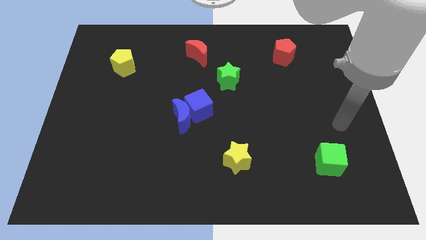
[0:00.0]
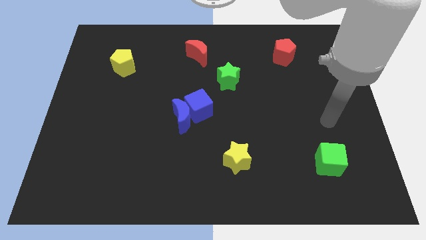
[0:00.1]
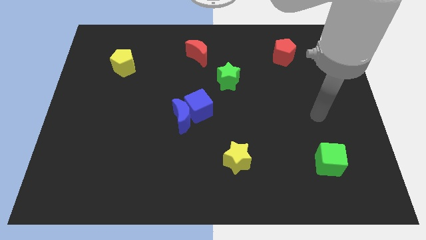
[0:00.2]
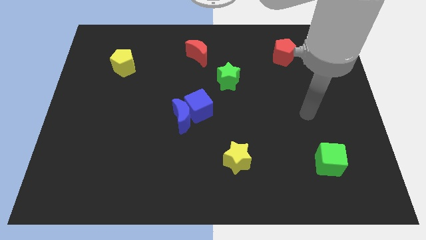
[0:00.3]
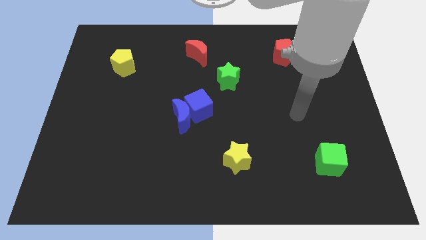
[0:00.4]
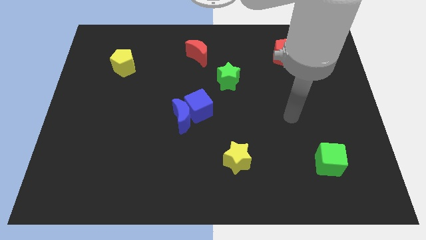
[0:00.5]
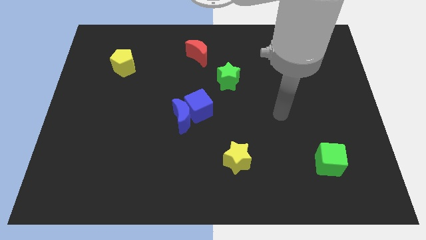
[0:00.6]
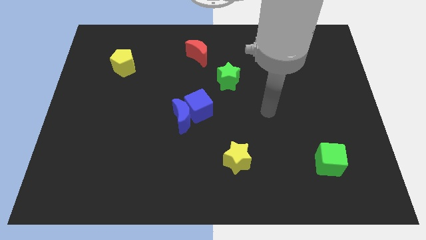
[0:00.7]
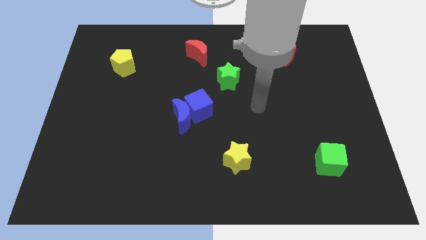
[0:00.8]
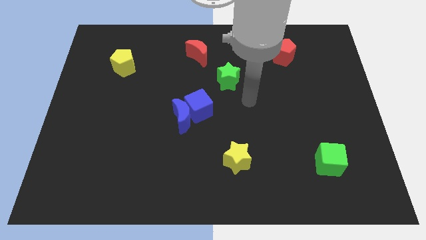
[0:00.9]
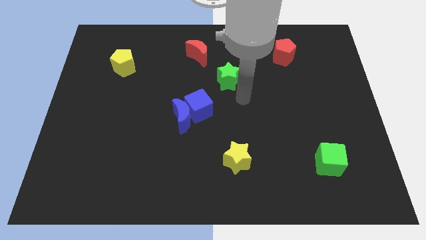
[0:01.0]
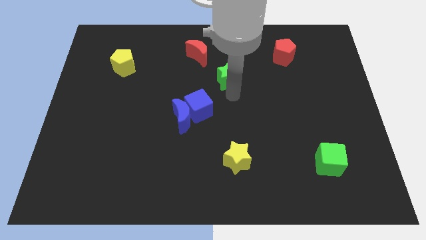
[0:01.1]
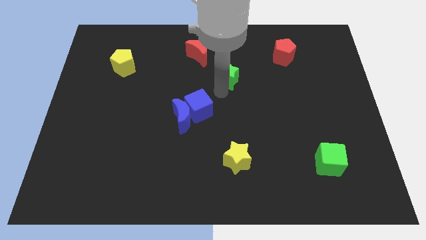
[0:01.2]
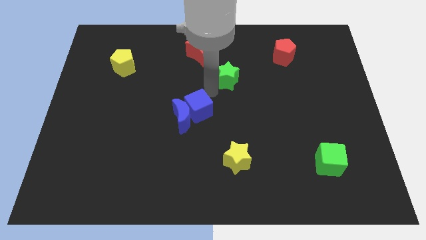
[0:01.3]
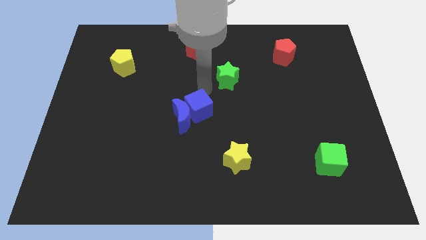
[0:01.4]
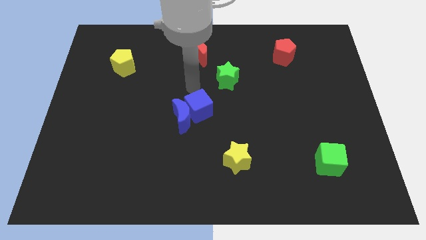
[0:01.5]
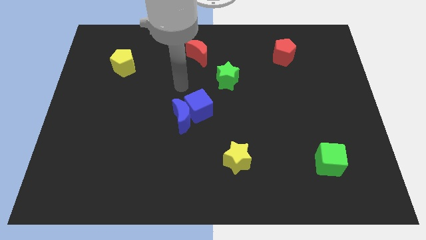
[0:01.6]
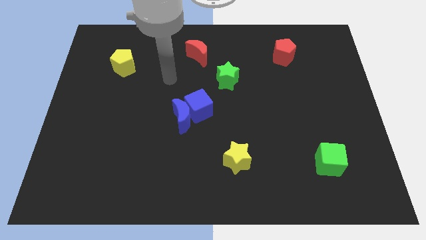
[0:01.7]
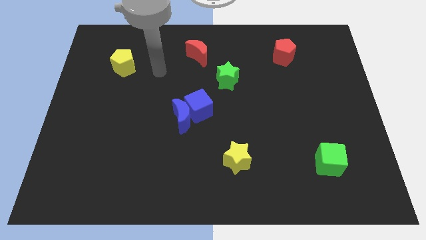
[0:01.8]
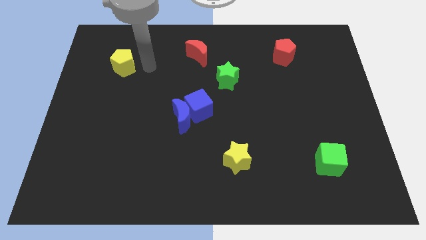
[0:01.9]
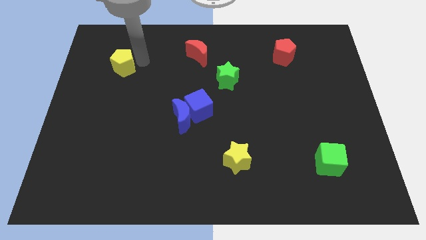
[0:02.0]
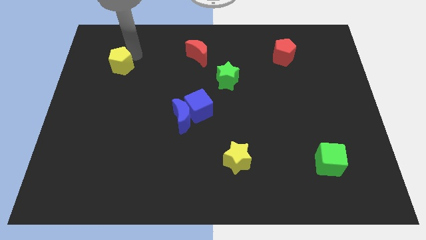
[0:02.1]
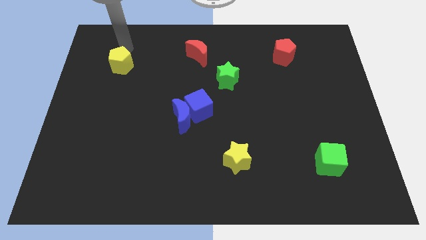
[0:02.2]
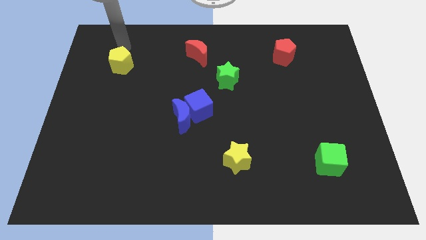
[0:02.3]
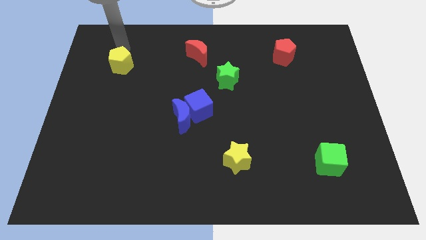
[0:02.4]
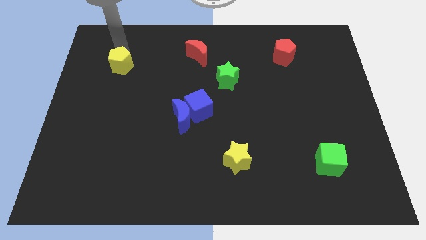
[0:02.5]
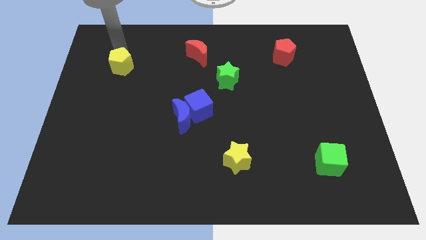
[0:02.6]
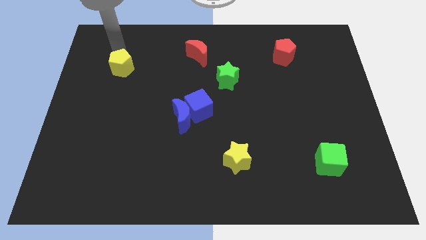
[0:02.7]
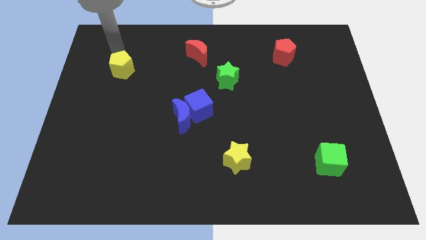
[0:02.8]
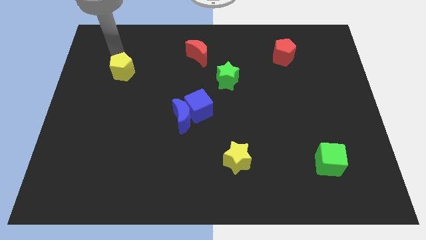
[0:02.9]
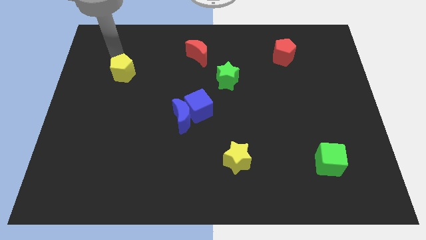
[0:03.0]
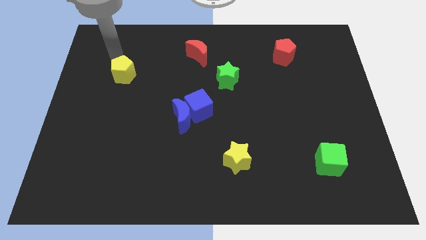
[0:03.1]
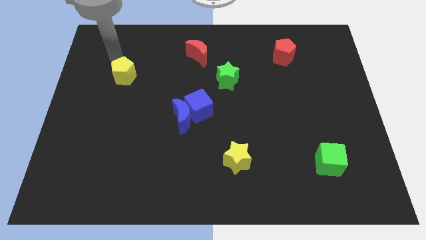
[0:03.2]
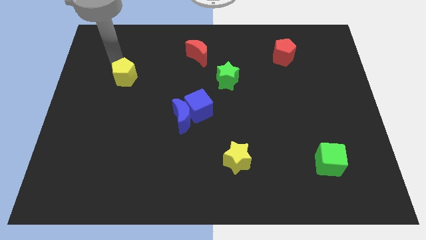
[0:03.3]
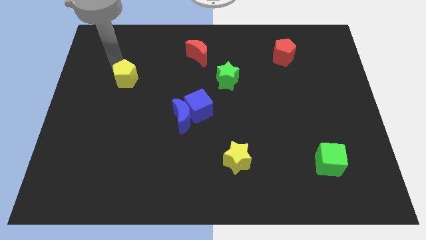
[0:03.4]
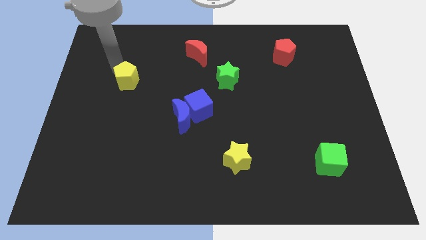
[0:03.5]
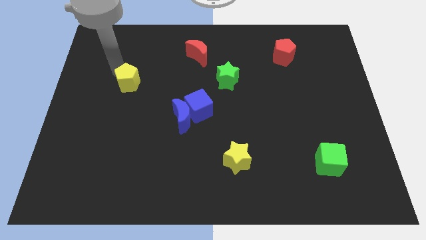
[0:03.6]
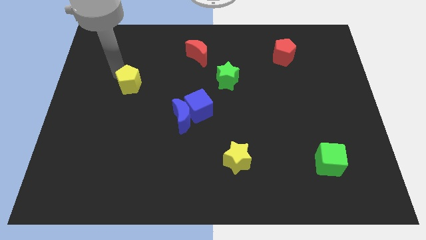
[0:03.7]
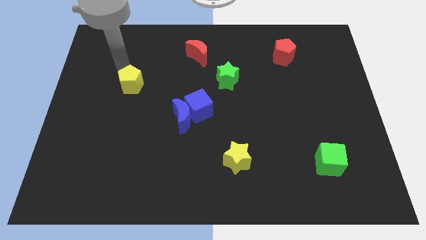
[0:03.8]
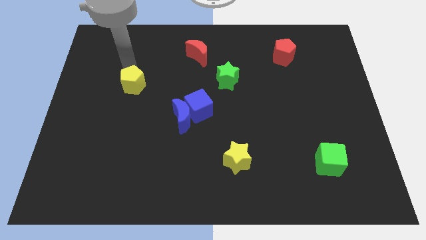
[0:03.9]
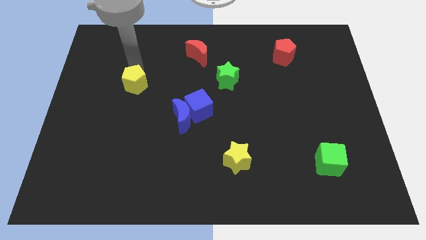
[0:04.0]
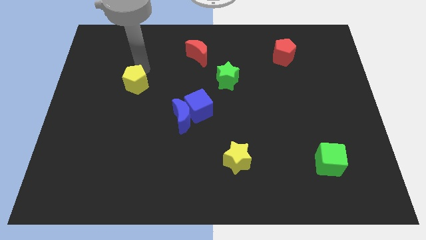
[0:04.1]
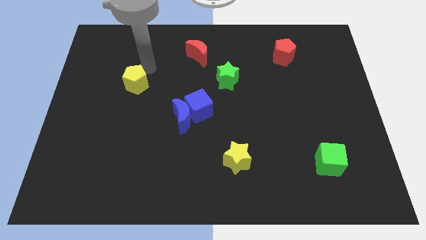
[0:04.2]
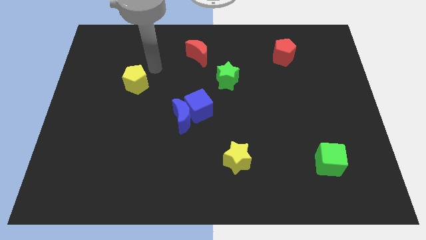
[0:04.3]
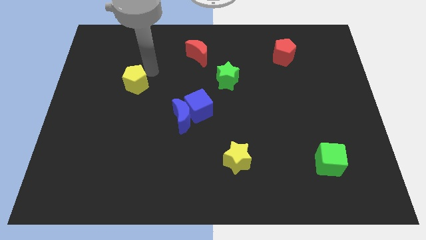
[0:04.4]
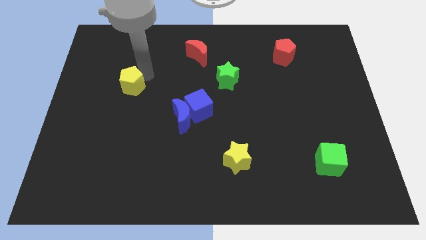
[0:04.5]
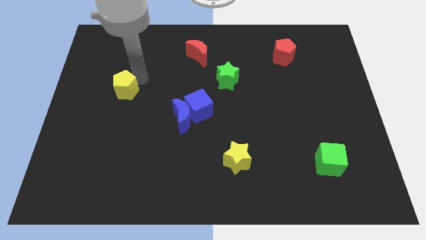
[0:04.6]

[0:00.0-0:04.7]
slightly move the yellow pentagon down

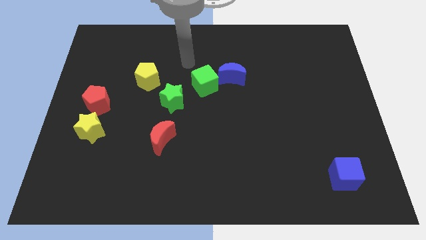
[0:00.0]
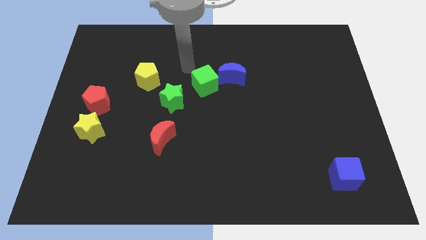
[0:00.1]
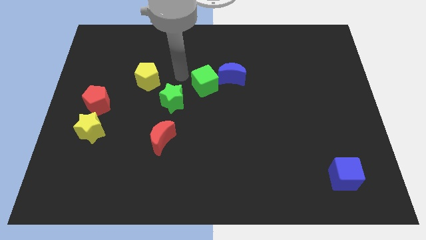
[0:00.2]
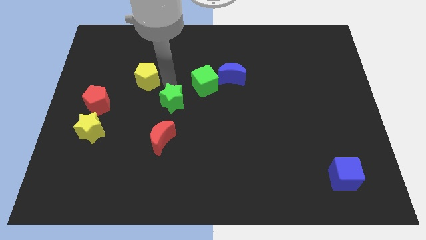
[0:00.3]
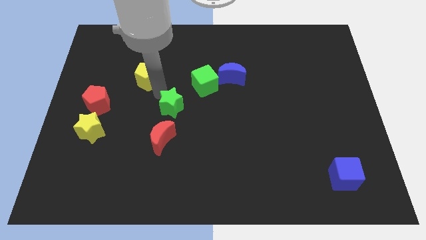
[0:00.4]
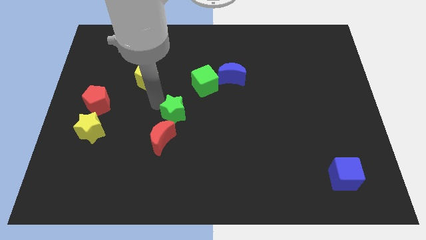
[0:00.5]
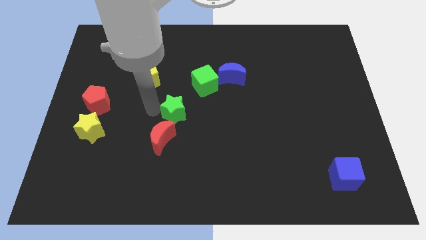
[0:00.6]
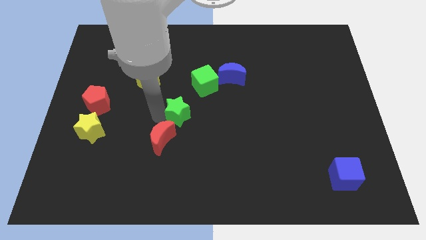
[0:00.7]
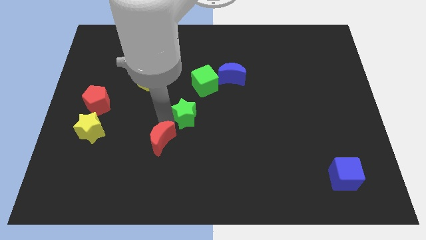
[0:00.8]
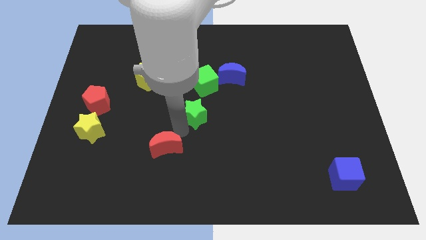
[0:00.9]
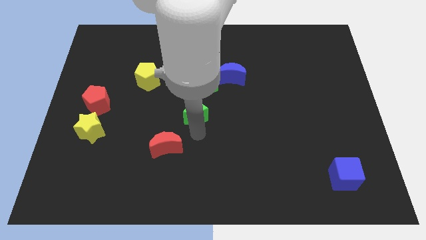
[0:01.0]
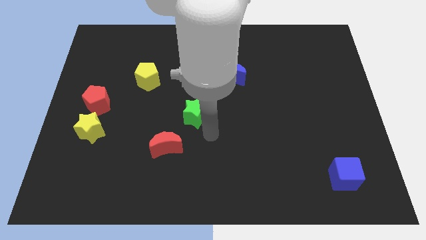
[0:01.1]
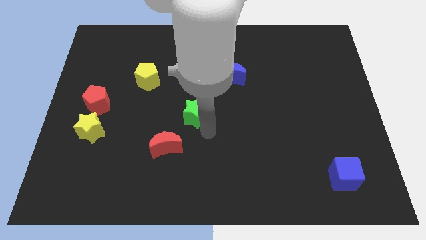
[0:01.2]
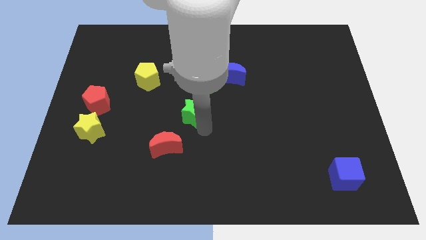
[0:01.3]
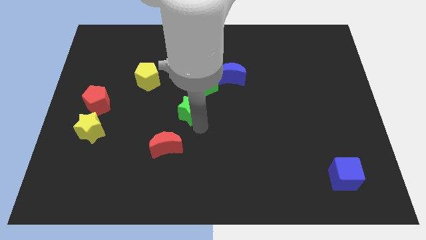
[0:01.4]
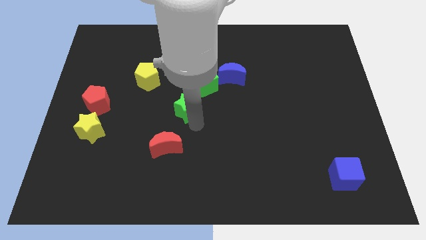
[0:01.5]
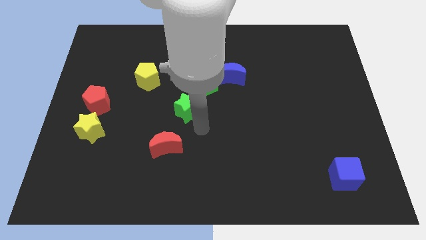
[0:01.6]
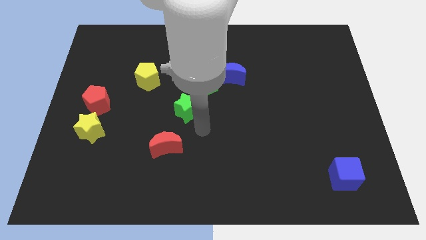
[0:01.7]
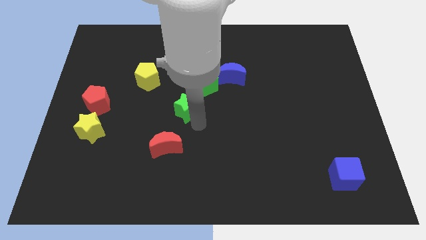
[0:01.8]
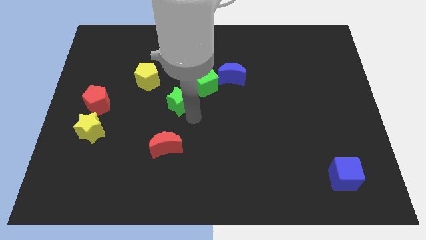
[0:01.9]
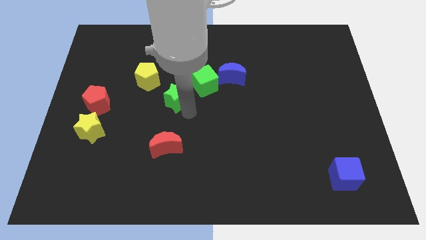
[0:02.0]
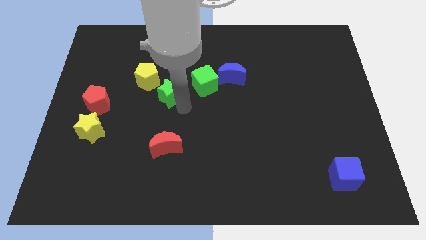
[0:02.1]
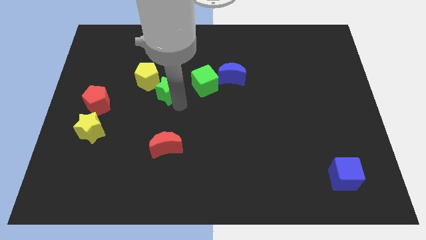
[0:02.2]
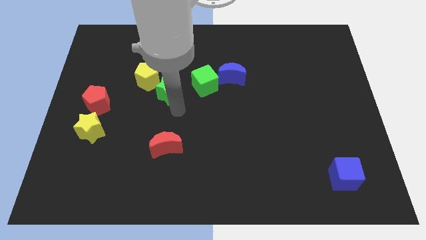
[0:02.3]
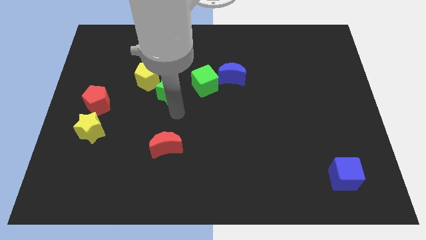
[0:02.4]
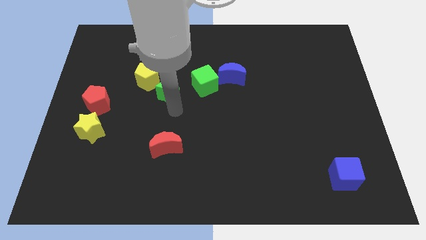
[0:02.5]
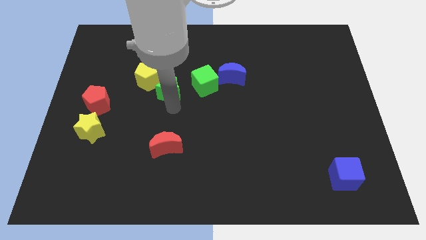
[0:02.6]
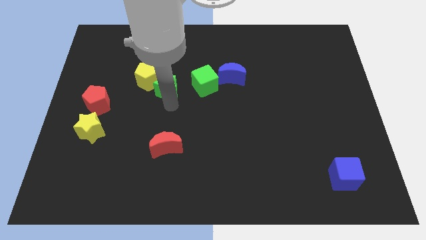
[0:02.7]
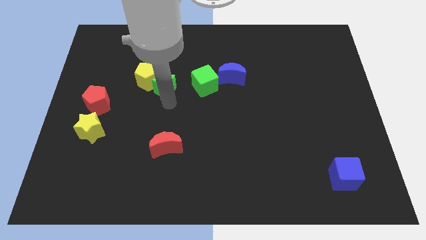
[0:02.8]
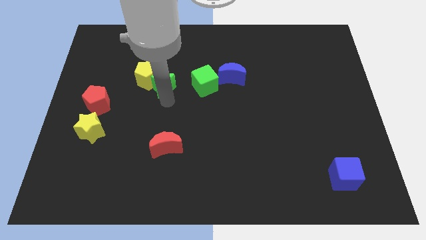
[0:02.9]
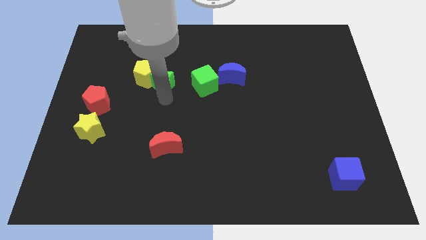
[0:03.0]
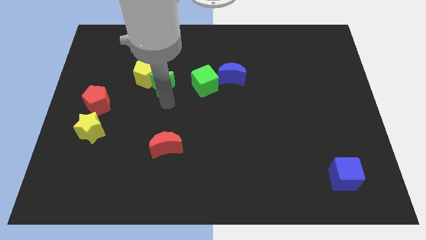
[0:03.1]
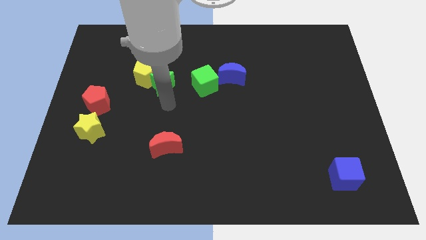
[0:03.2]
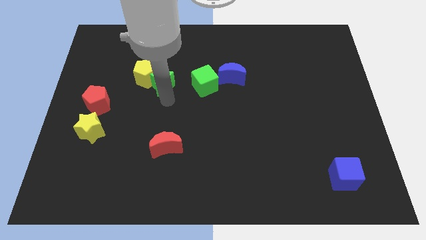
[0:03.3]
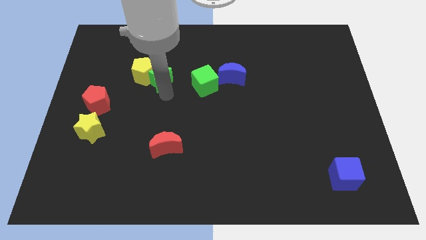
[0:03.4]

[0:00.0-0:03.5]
slightly slide the green star upwards and then left
